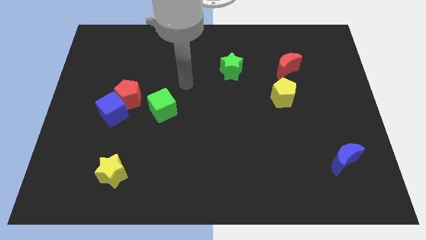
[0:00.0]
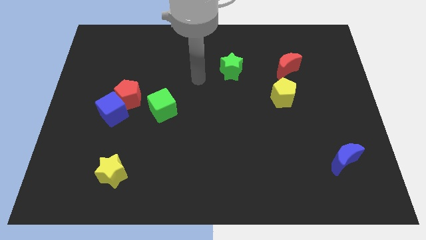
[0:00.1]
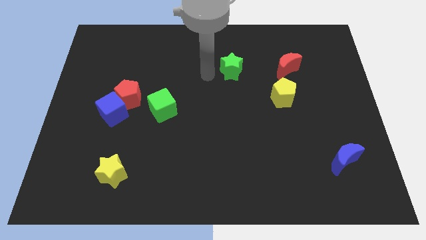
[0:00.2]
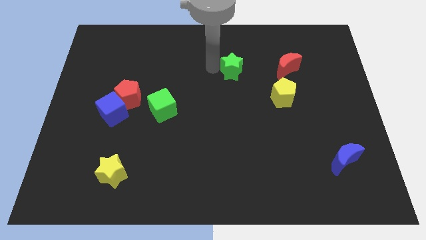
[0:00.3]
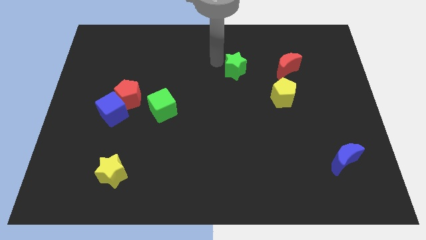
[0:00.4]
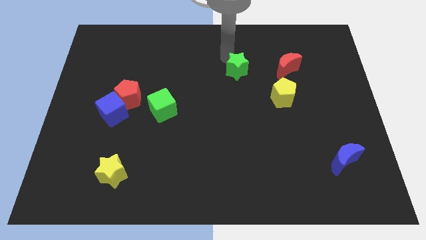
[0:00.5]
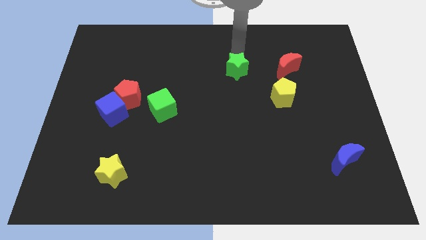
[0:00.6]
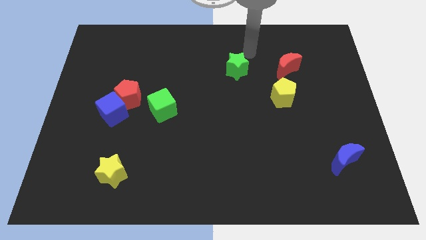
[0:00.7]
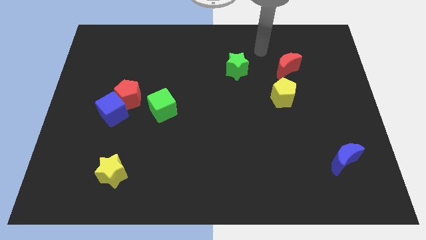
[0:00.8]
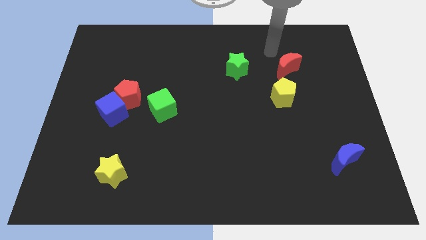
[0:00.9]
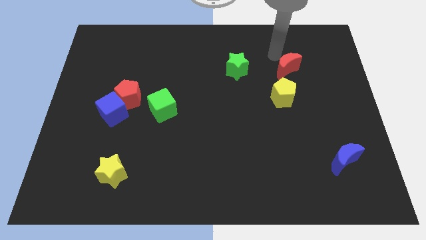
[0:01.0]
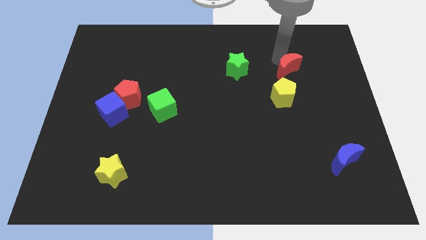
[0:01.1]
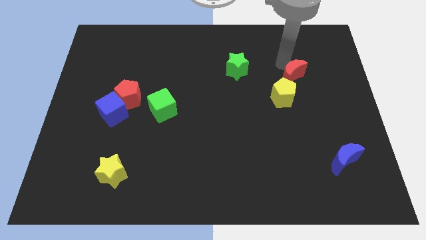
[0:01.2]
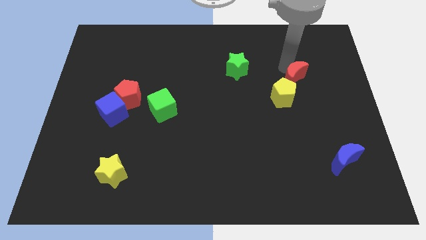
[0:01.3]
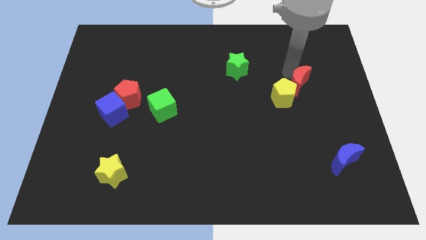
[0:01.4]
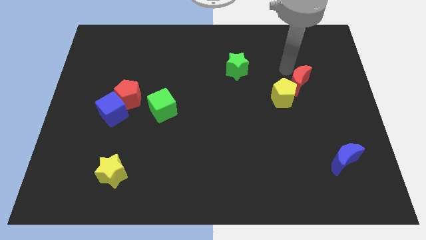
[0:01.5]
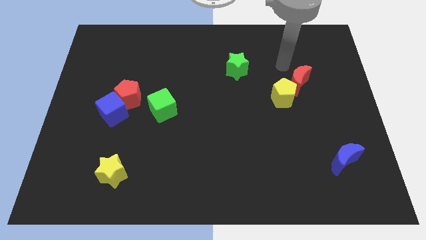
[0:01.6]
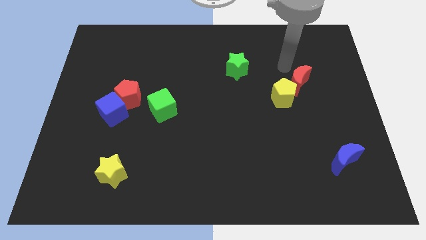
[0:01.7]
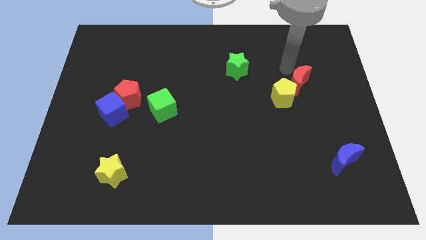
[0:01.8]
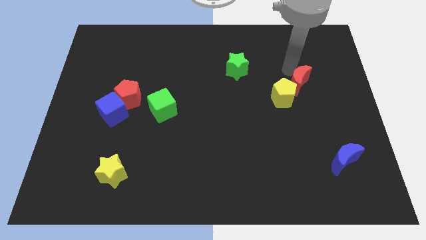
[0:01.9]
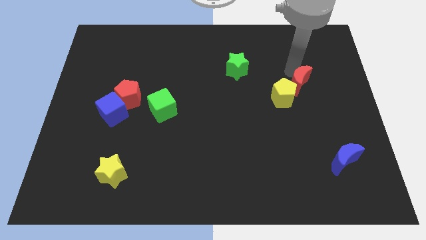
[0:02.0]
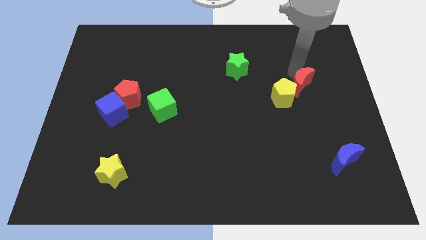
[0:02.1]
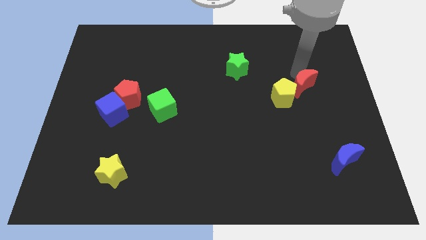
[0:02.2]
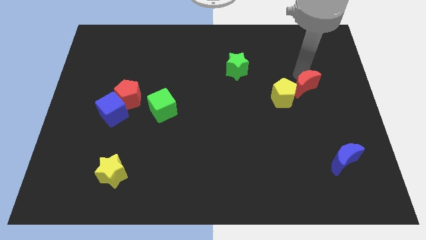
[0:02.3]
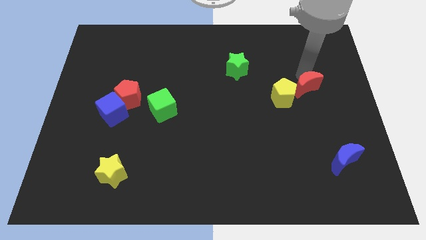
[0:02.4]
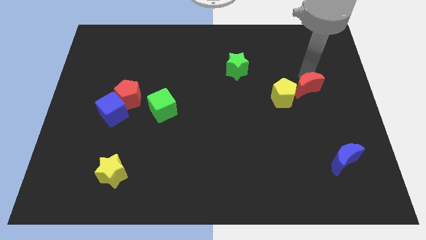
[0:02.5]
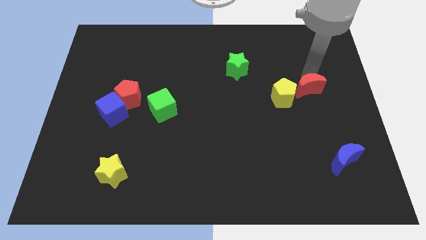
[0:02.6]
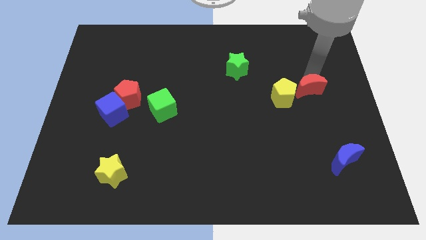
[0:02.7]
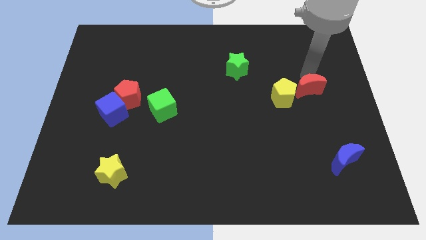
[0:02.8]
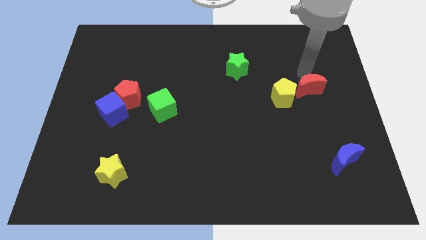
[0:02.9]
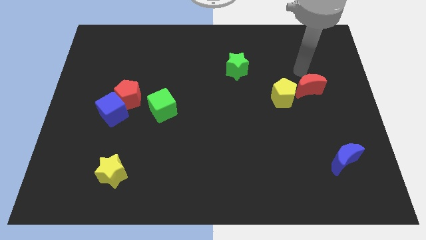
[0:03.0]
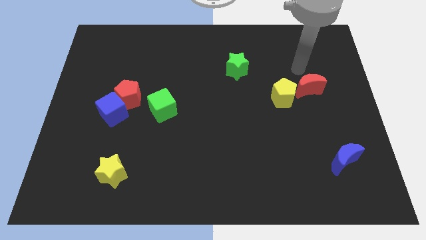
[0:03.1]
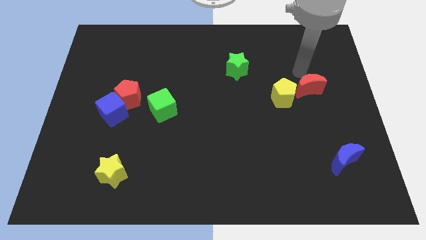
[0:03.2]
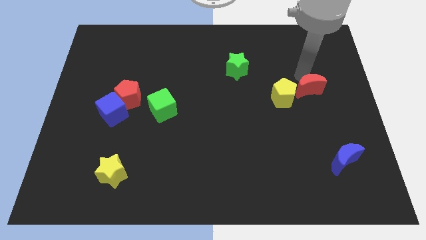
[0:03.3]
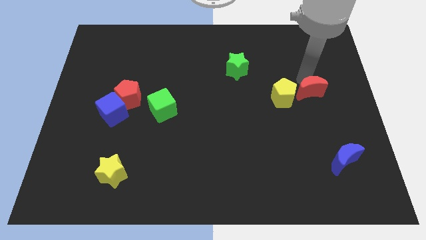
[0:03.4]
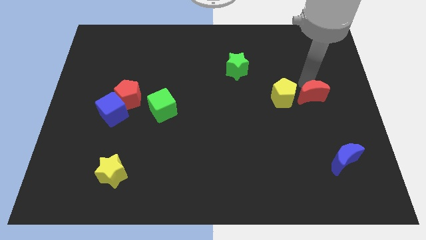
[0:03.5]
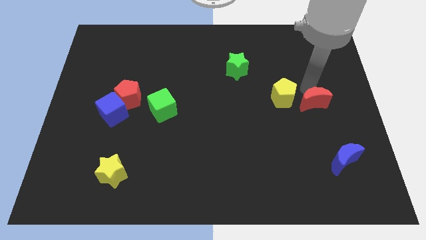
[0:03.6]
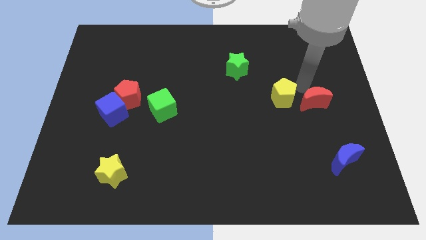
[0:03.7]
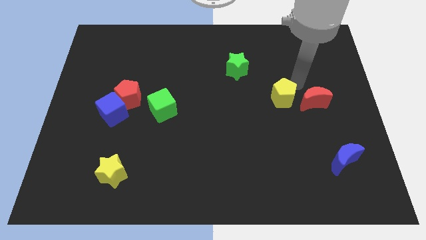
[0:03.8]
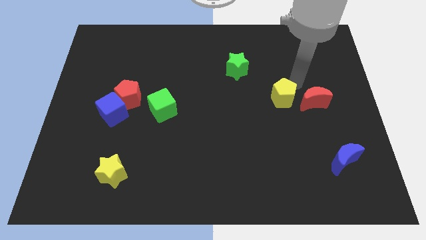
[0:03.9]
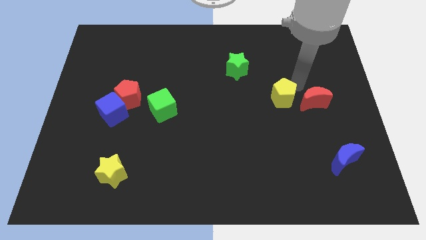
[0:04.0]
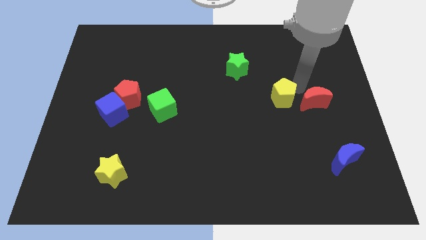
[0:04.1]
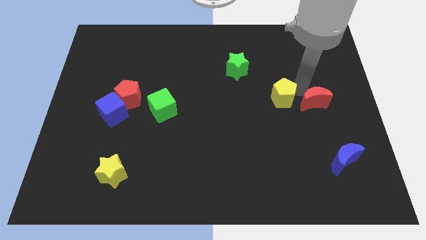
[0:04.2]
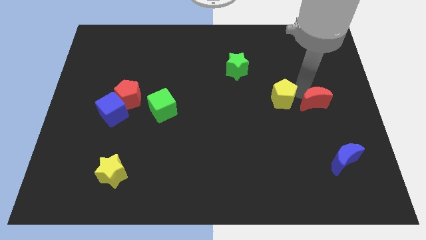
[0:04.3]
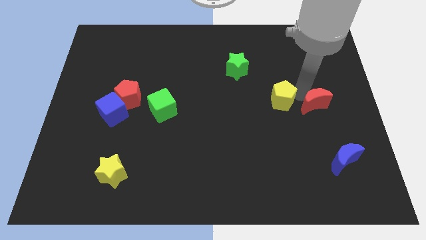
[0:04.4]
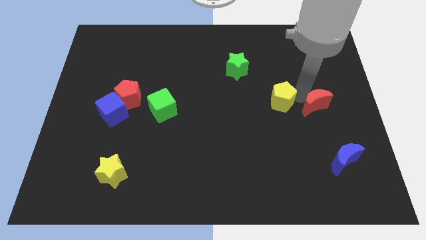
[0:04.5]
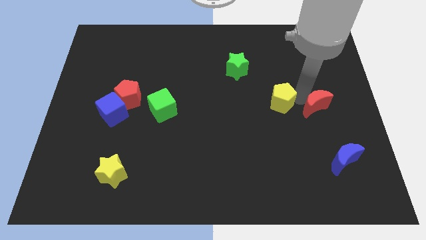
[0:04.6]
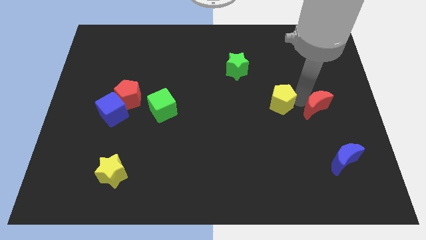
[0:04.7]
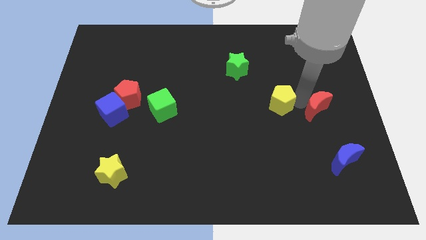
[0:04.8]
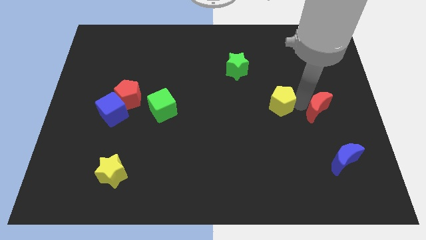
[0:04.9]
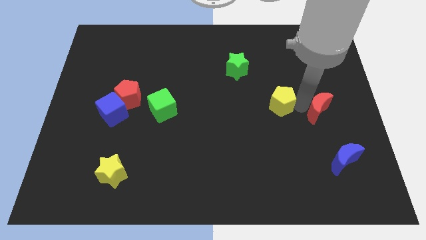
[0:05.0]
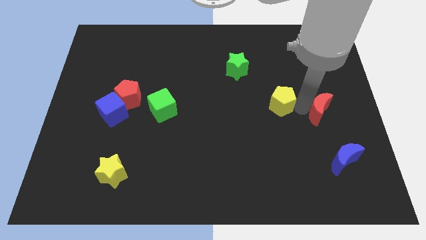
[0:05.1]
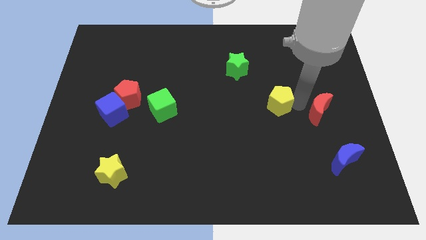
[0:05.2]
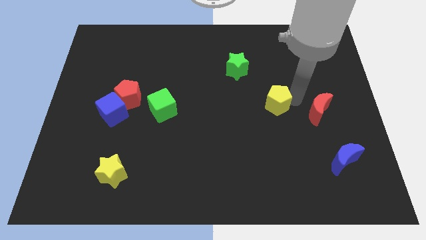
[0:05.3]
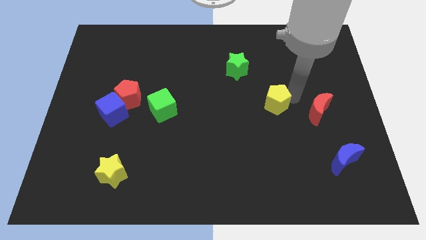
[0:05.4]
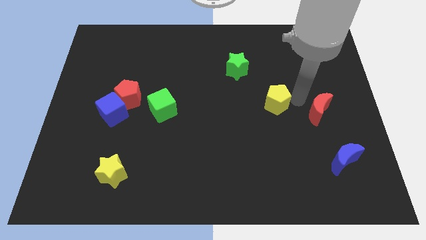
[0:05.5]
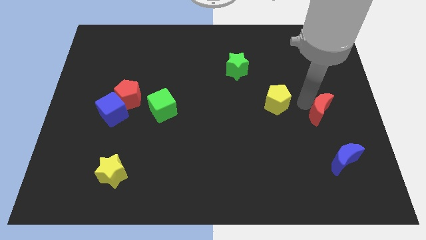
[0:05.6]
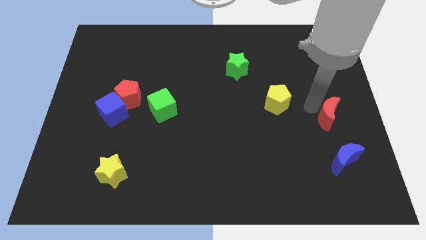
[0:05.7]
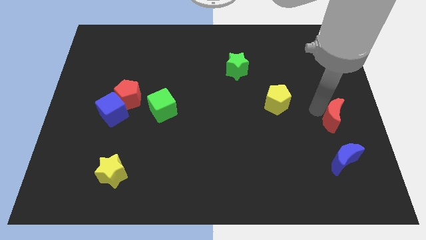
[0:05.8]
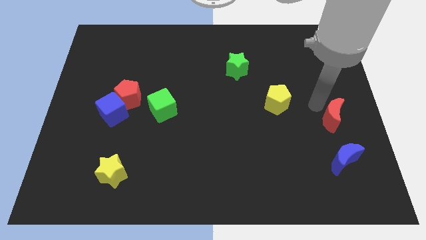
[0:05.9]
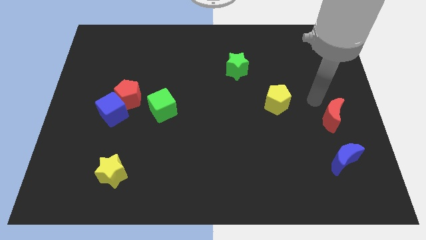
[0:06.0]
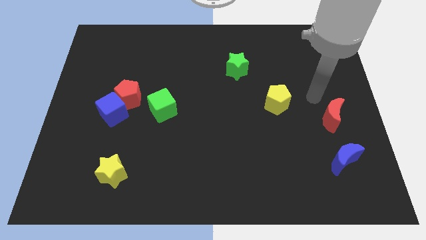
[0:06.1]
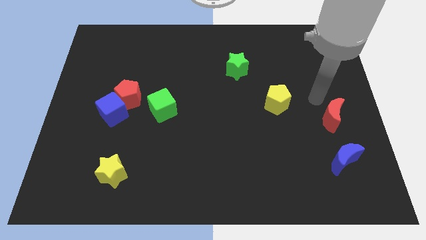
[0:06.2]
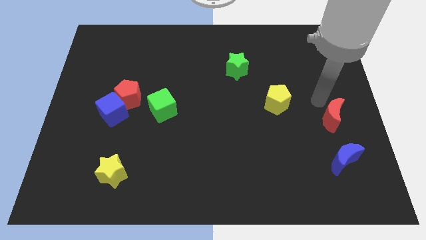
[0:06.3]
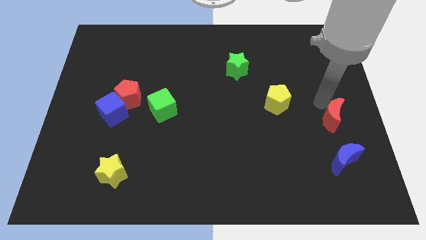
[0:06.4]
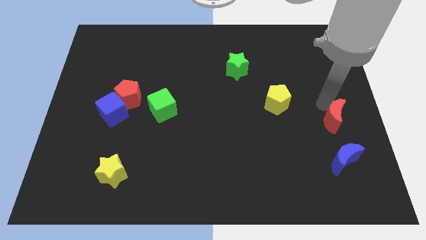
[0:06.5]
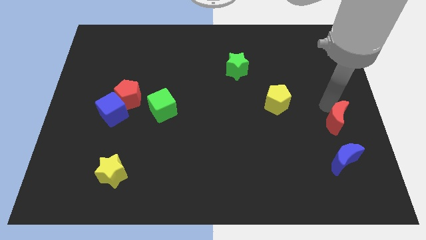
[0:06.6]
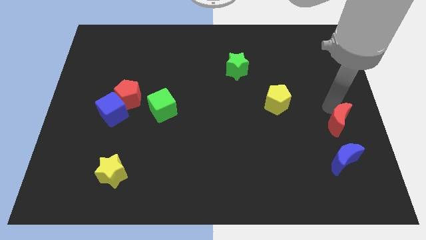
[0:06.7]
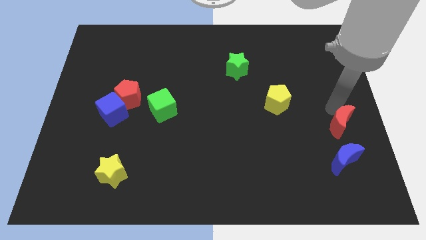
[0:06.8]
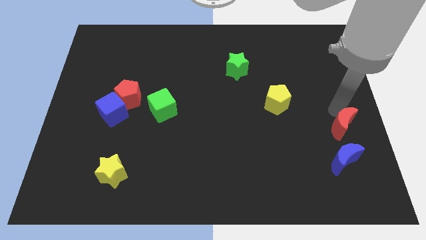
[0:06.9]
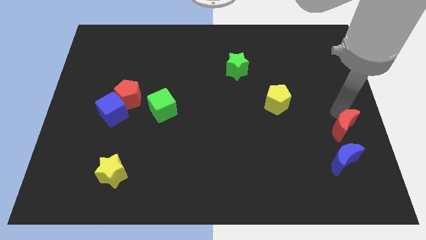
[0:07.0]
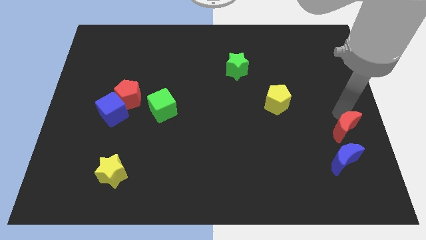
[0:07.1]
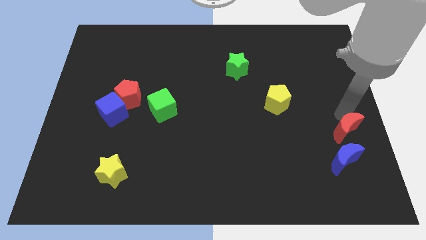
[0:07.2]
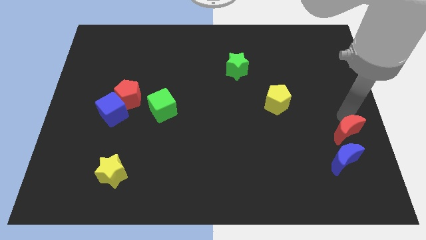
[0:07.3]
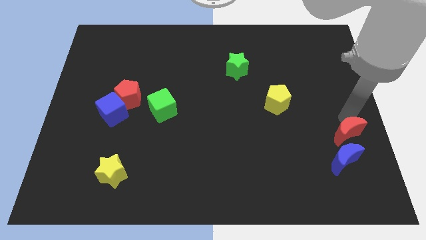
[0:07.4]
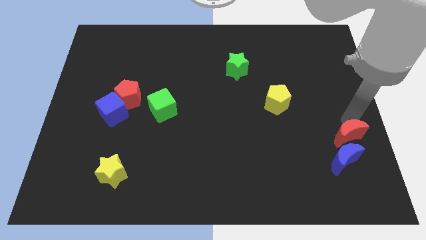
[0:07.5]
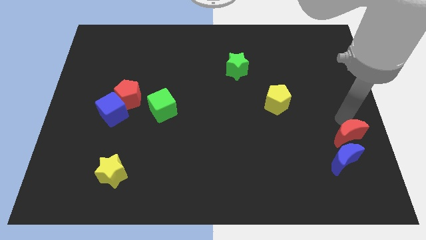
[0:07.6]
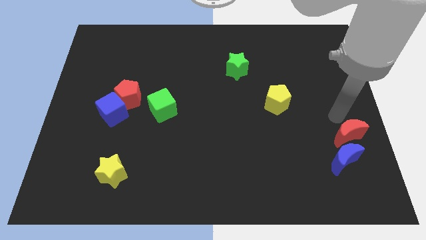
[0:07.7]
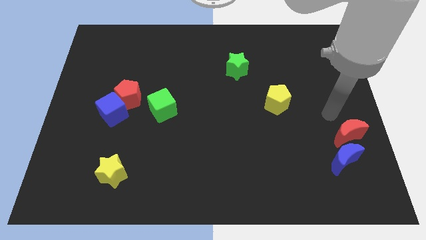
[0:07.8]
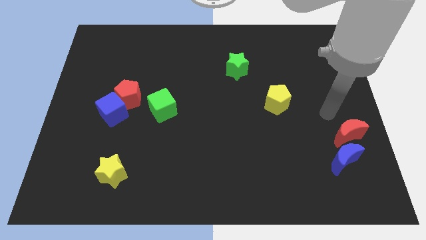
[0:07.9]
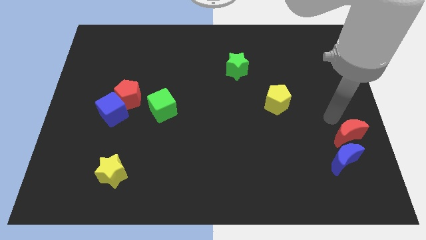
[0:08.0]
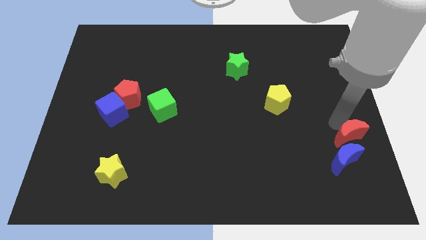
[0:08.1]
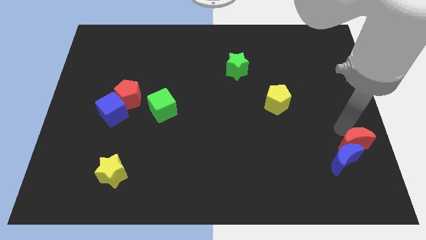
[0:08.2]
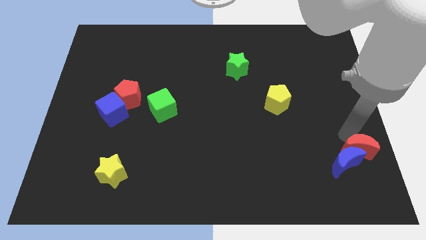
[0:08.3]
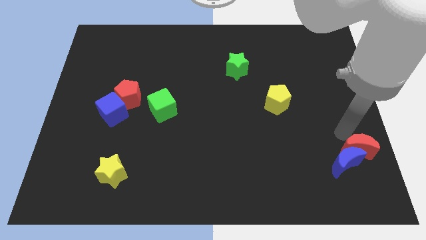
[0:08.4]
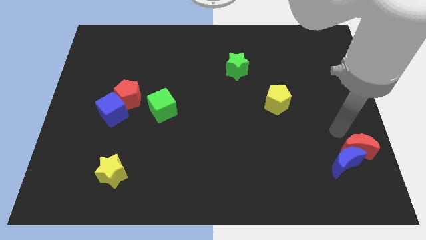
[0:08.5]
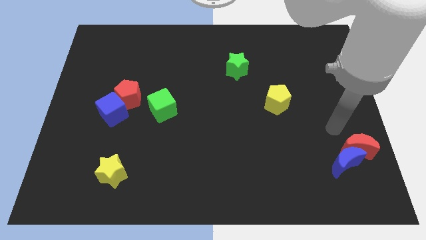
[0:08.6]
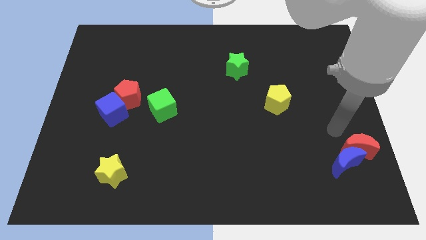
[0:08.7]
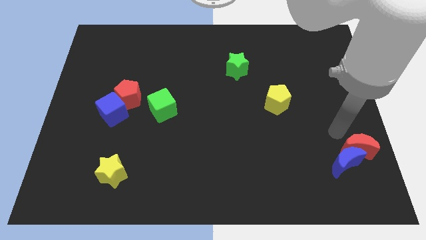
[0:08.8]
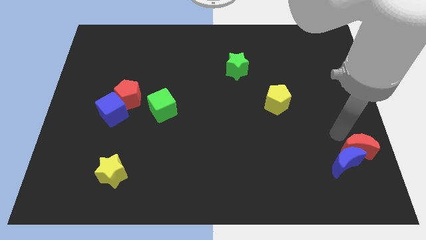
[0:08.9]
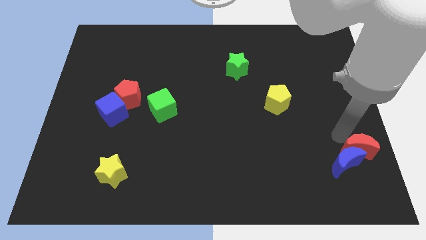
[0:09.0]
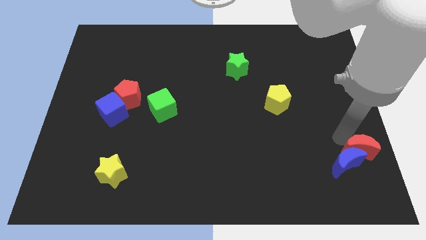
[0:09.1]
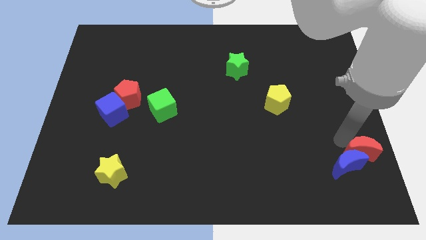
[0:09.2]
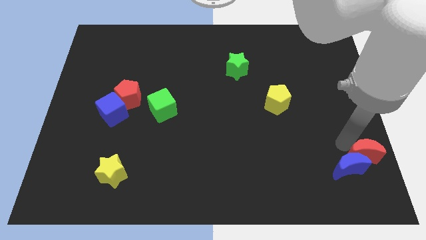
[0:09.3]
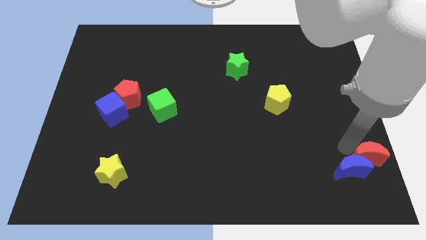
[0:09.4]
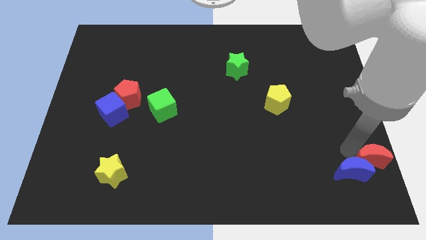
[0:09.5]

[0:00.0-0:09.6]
push the red moon to the lower right corner
